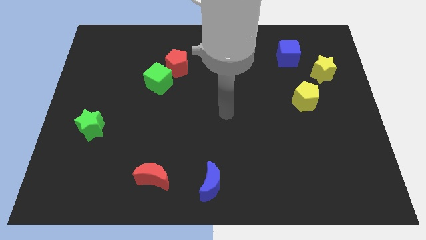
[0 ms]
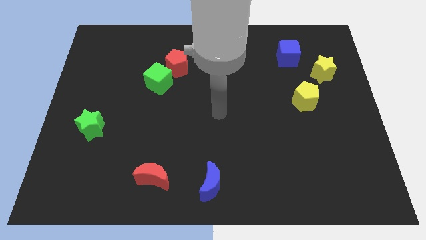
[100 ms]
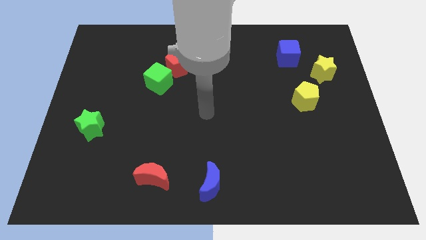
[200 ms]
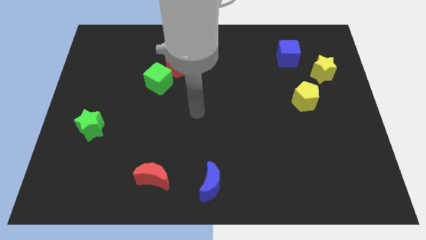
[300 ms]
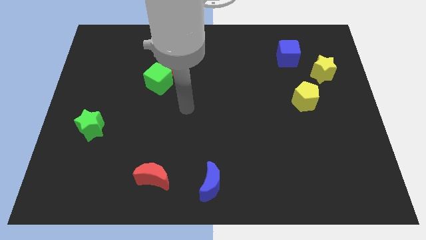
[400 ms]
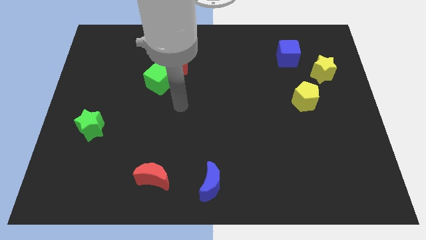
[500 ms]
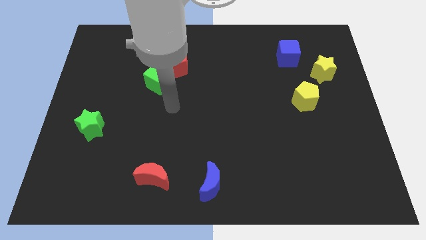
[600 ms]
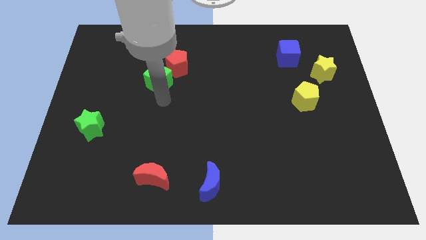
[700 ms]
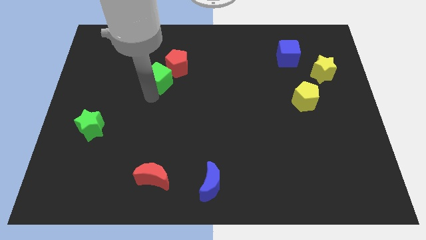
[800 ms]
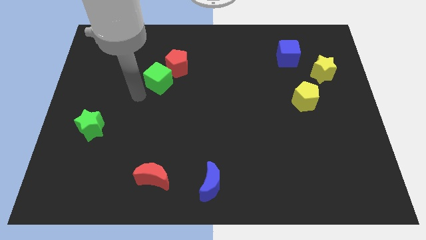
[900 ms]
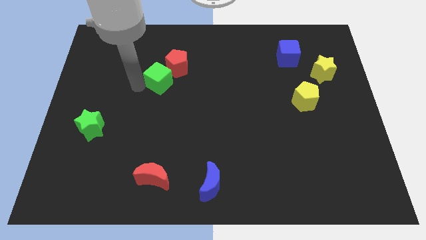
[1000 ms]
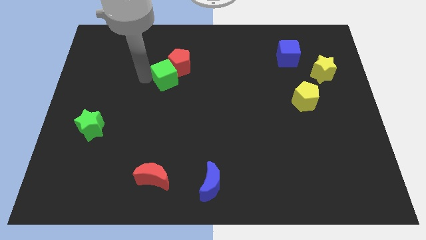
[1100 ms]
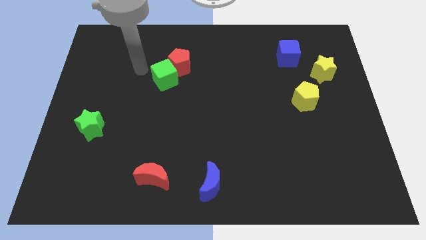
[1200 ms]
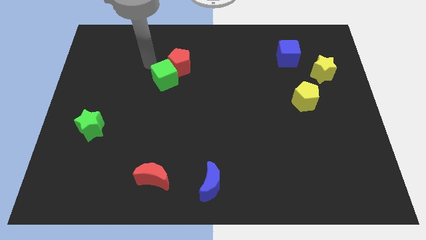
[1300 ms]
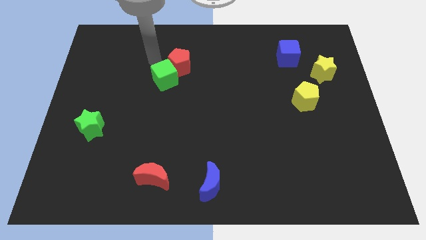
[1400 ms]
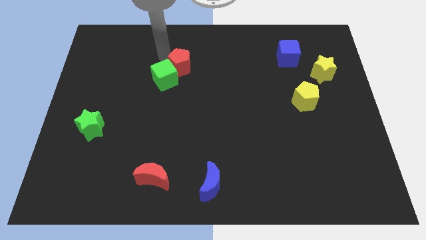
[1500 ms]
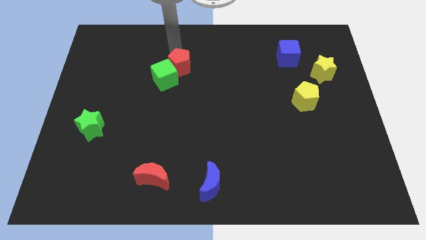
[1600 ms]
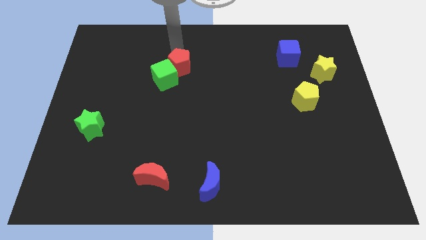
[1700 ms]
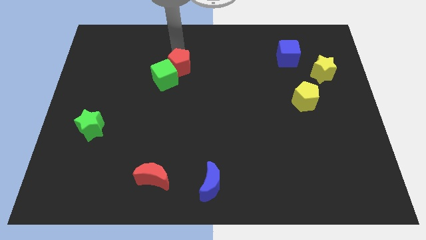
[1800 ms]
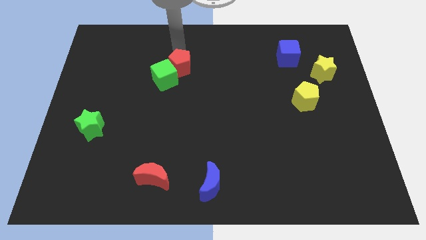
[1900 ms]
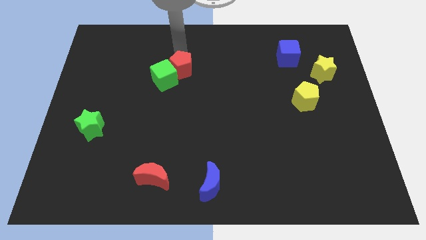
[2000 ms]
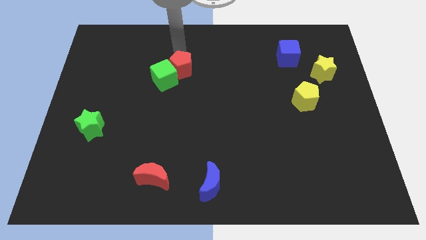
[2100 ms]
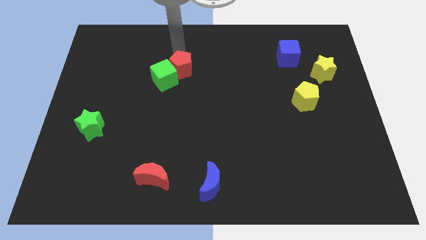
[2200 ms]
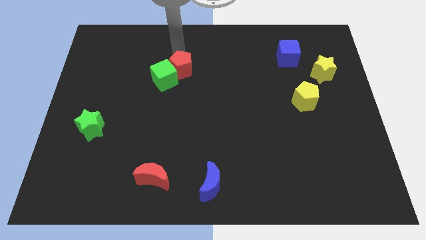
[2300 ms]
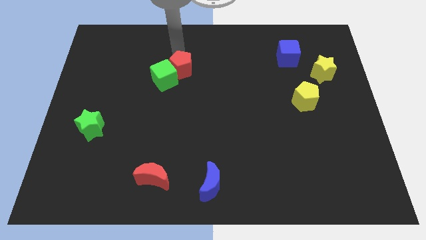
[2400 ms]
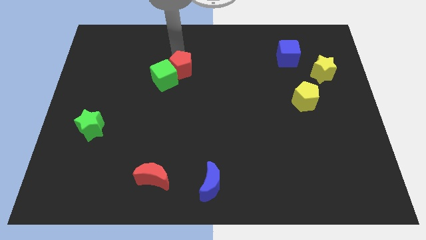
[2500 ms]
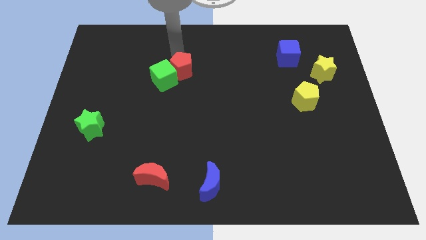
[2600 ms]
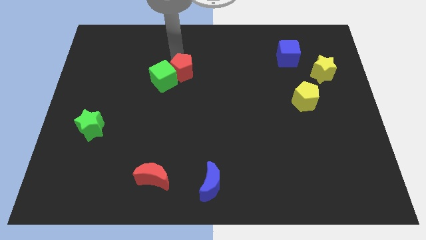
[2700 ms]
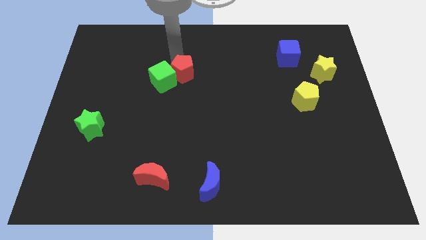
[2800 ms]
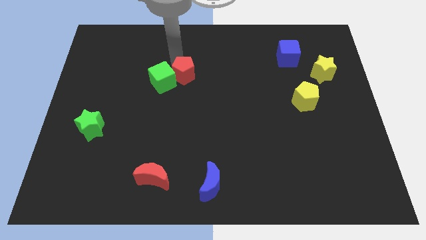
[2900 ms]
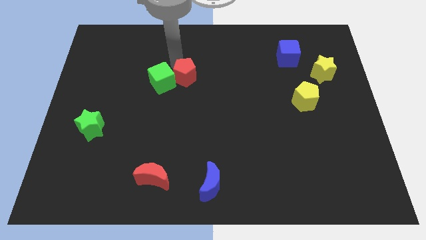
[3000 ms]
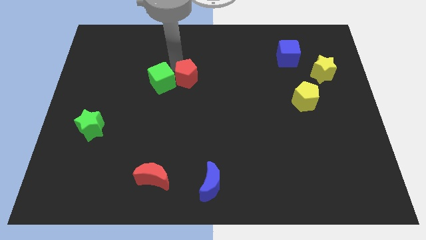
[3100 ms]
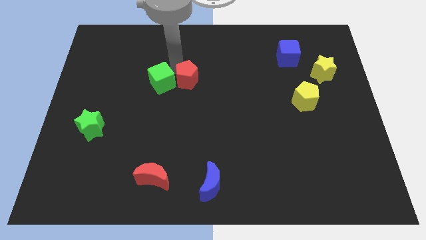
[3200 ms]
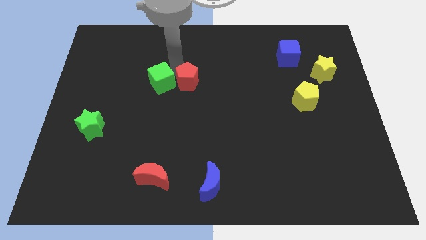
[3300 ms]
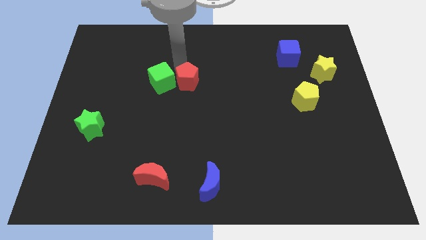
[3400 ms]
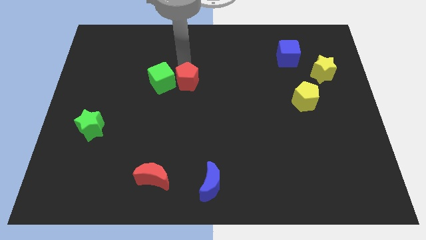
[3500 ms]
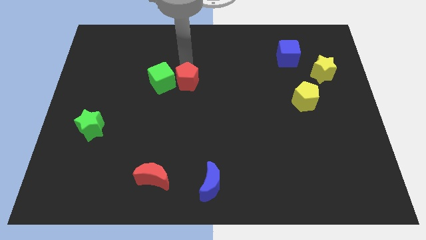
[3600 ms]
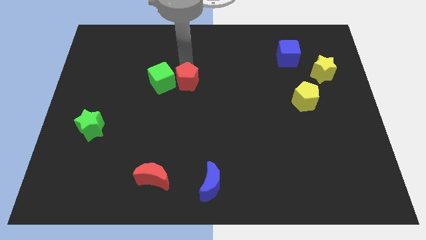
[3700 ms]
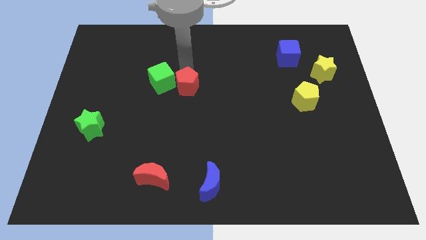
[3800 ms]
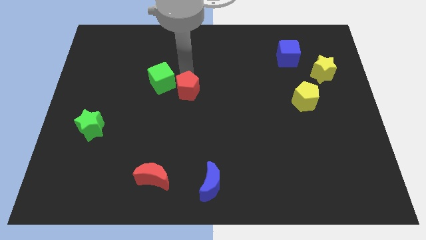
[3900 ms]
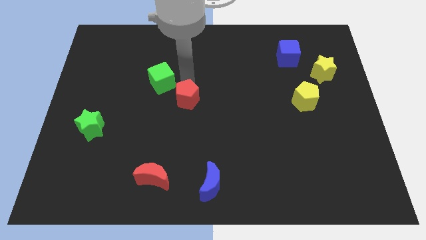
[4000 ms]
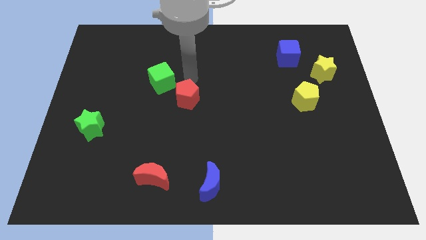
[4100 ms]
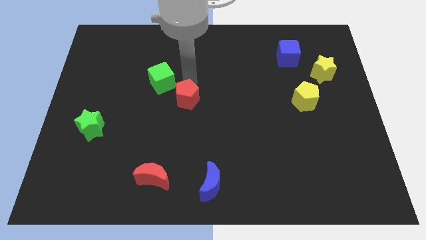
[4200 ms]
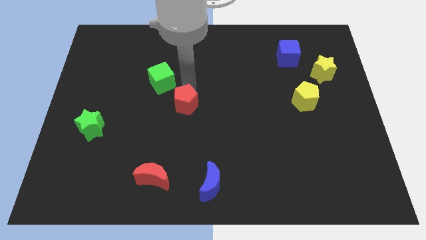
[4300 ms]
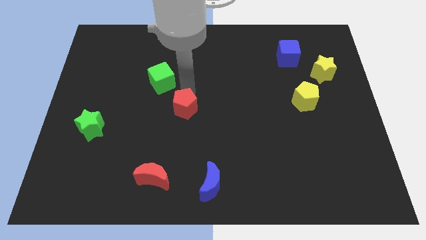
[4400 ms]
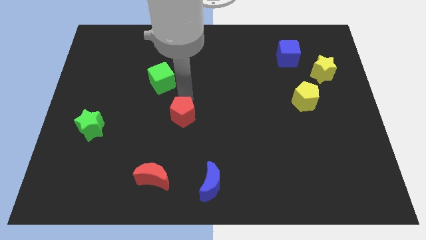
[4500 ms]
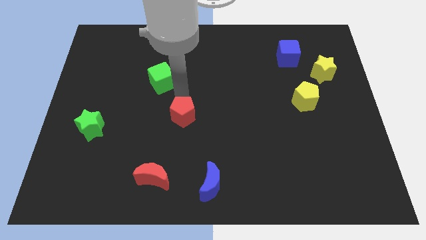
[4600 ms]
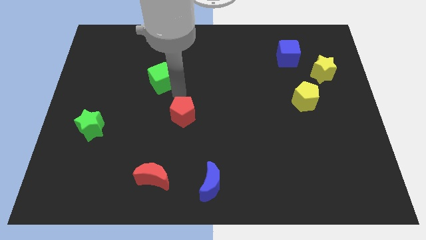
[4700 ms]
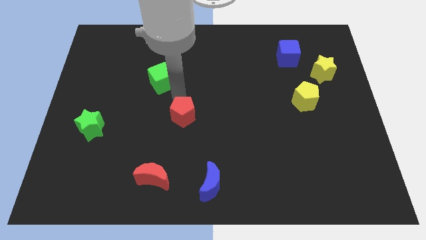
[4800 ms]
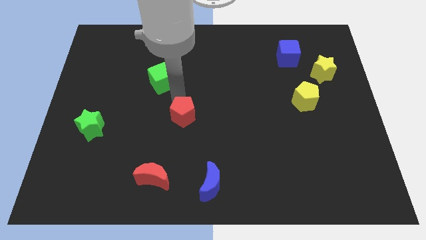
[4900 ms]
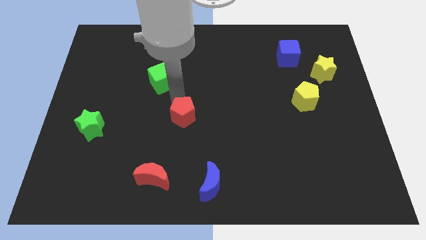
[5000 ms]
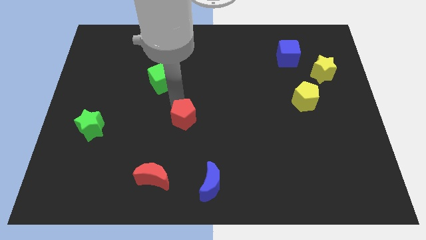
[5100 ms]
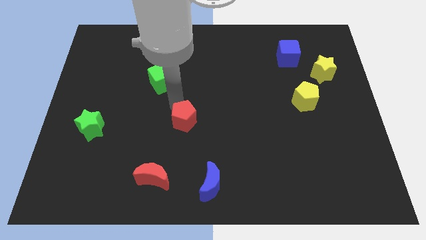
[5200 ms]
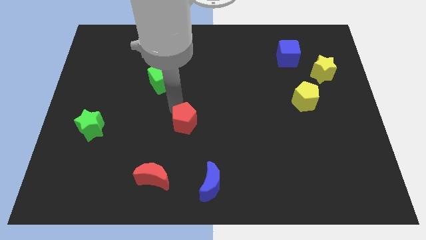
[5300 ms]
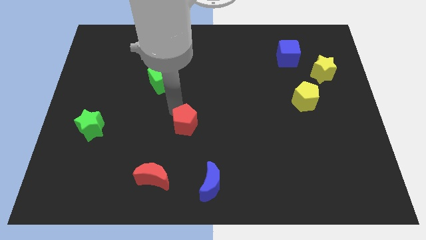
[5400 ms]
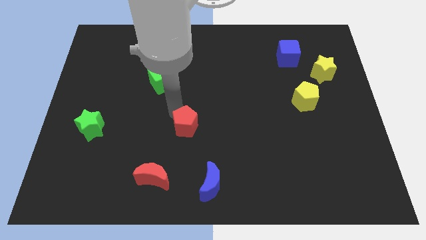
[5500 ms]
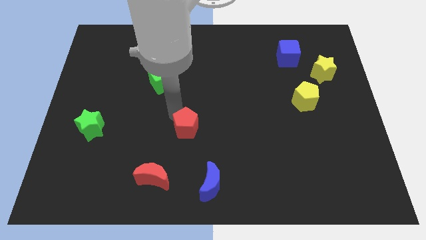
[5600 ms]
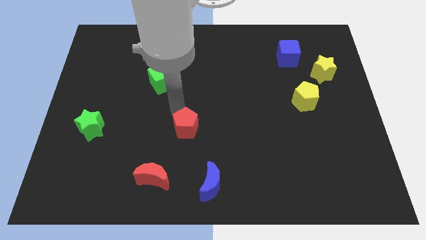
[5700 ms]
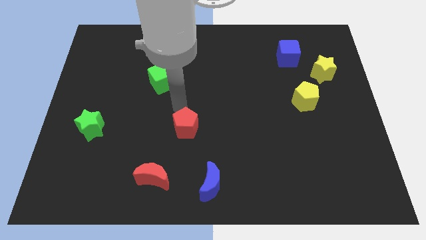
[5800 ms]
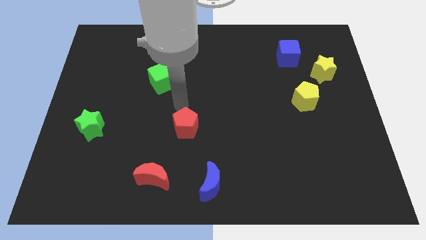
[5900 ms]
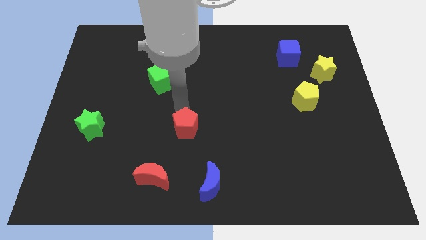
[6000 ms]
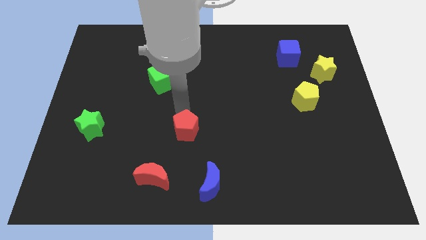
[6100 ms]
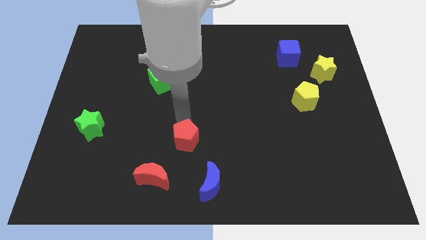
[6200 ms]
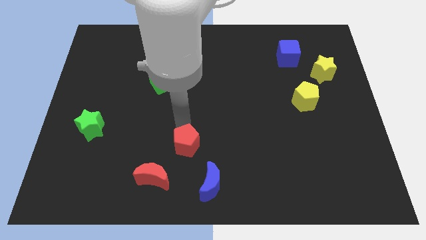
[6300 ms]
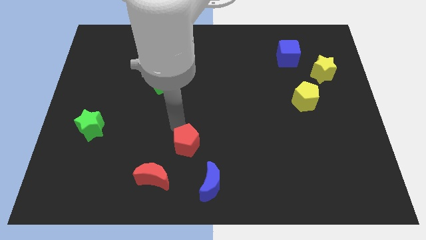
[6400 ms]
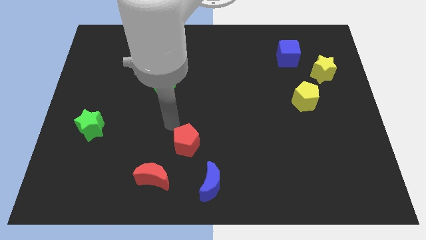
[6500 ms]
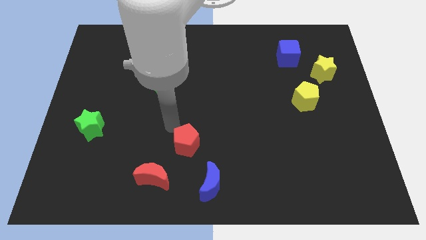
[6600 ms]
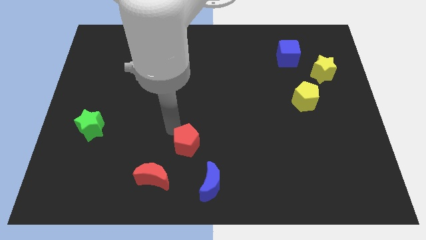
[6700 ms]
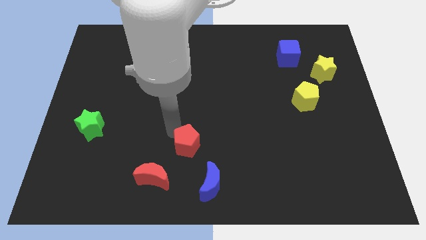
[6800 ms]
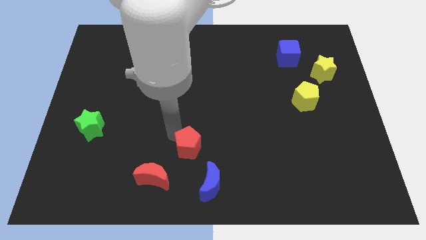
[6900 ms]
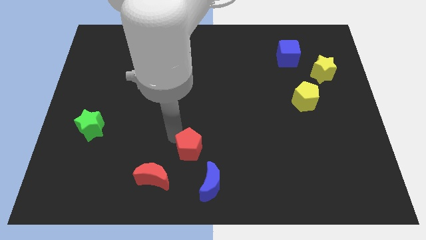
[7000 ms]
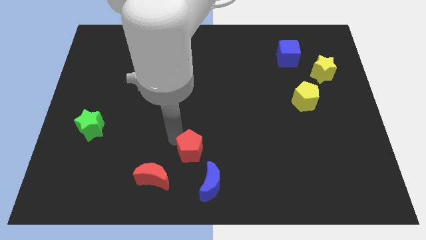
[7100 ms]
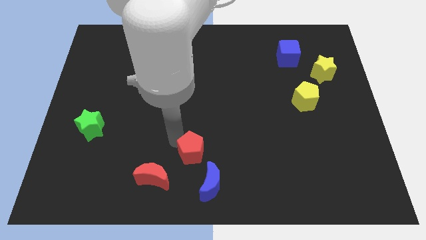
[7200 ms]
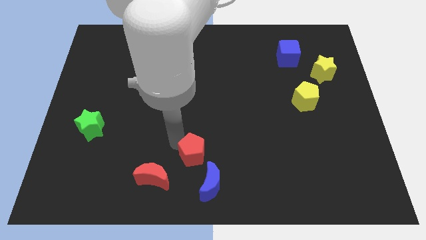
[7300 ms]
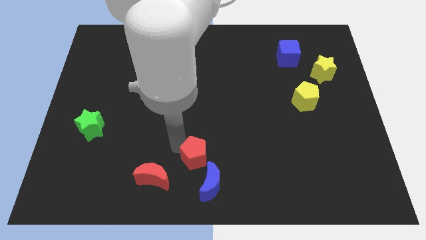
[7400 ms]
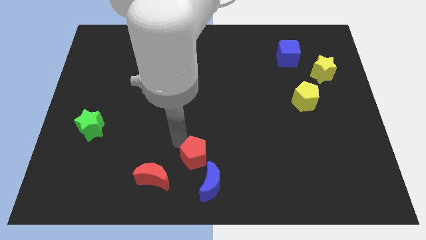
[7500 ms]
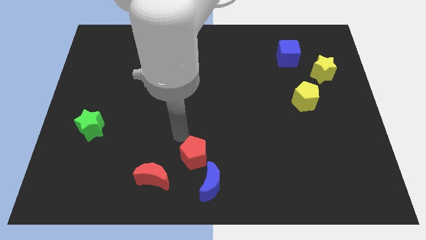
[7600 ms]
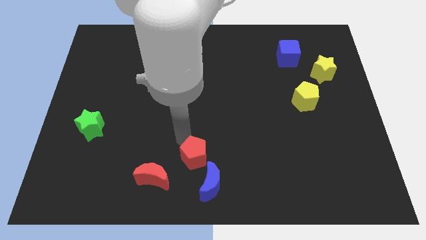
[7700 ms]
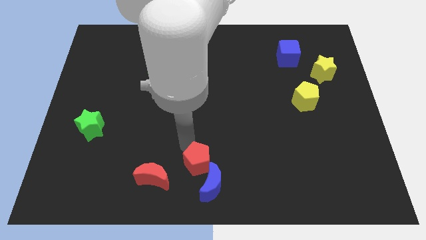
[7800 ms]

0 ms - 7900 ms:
move the red pentagon next to the blue moon
